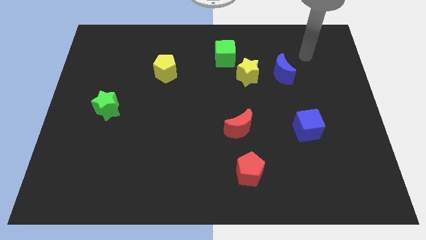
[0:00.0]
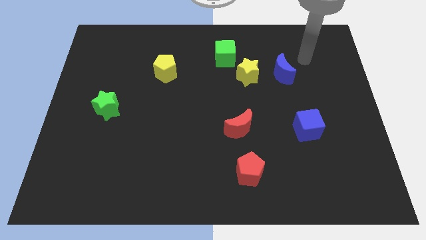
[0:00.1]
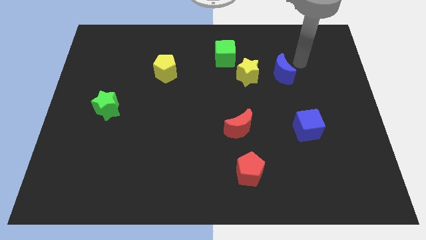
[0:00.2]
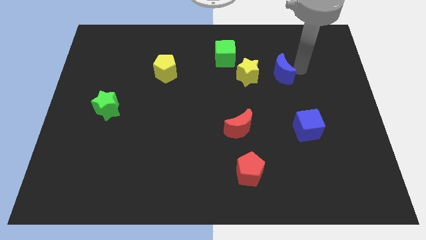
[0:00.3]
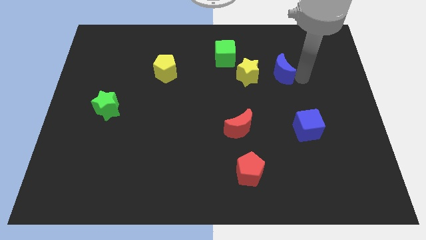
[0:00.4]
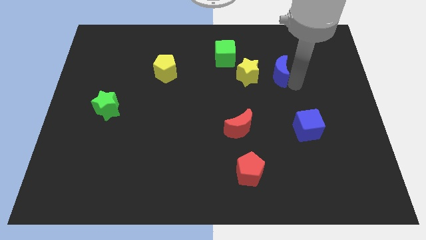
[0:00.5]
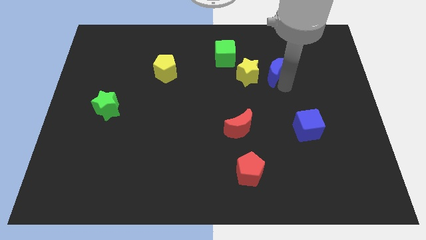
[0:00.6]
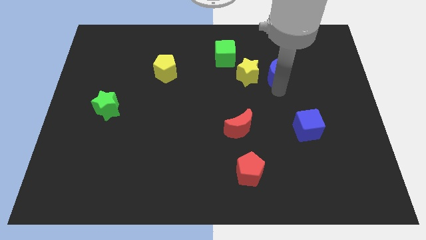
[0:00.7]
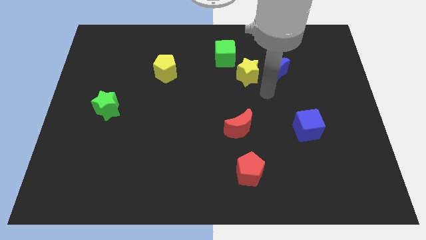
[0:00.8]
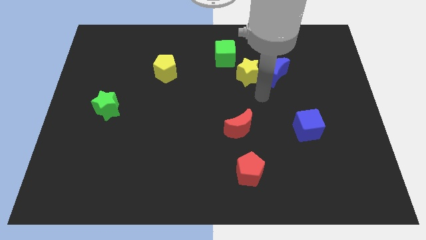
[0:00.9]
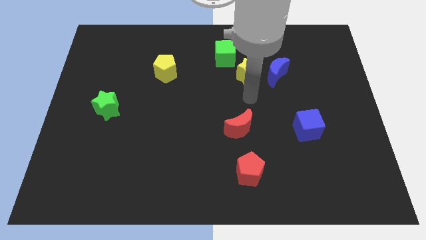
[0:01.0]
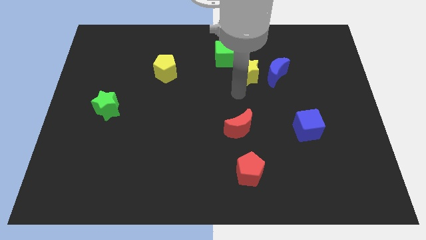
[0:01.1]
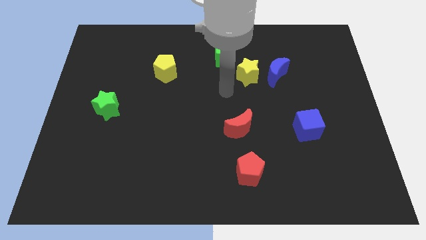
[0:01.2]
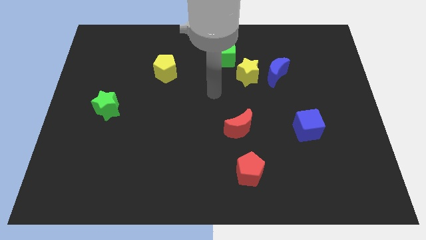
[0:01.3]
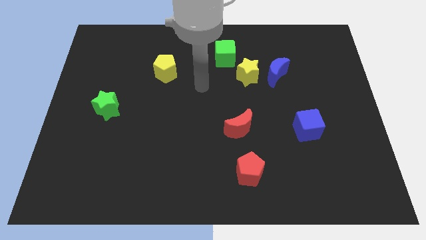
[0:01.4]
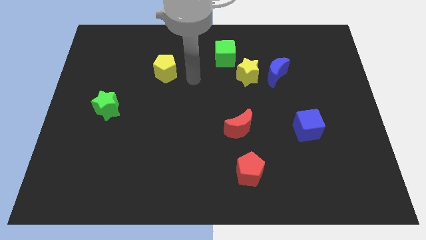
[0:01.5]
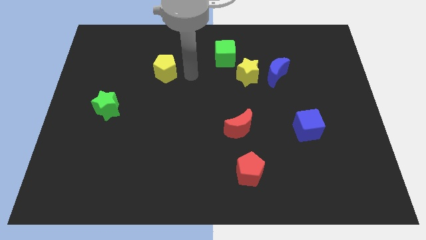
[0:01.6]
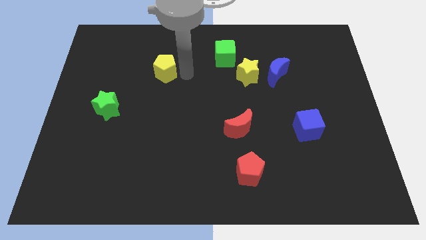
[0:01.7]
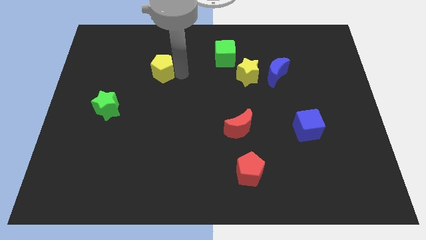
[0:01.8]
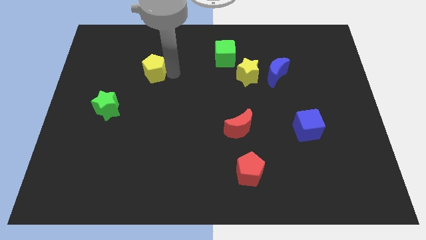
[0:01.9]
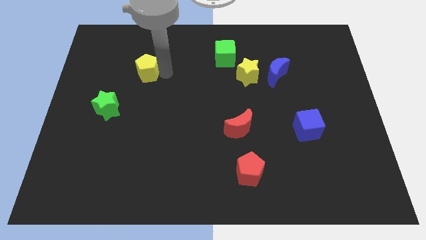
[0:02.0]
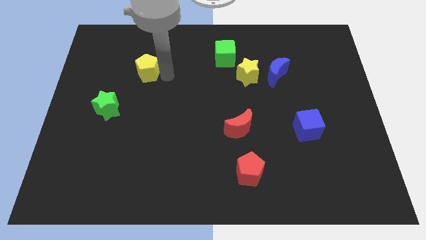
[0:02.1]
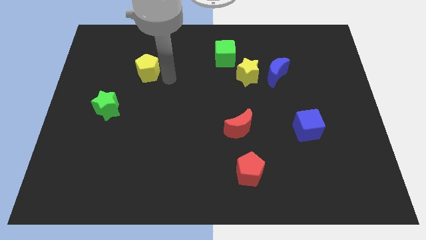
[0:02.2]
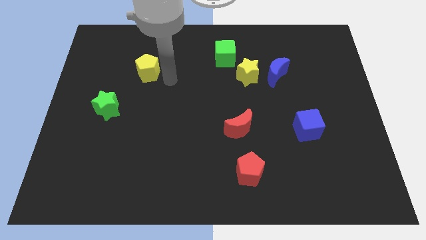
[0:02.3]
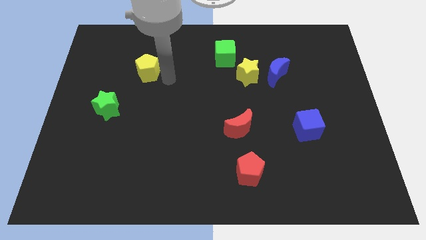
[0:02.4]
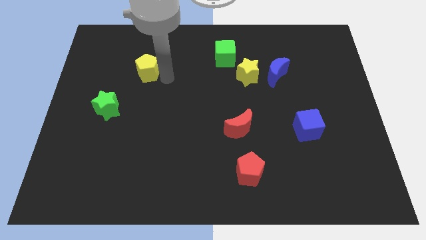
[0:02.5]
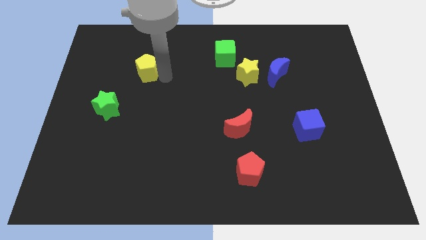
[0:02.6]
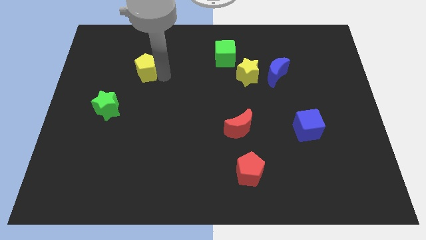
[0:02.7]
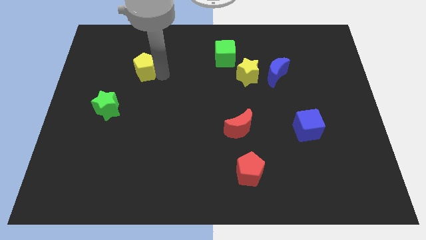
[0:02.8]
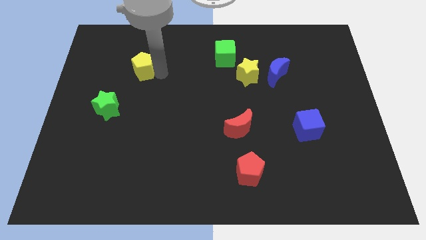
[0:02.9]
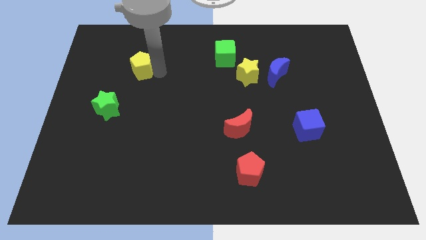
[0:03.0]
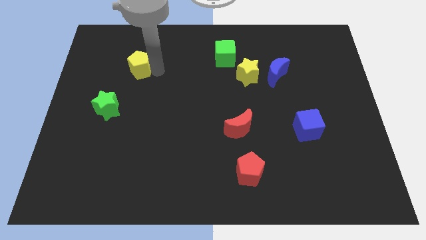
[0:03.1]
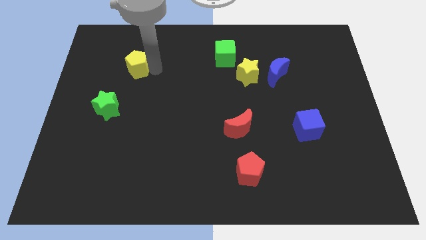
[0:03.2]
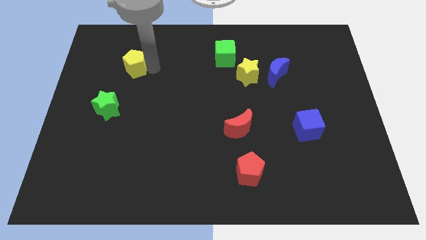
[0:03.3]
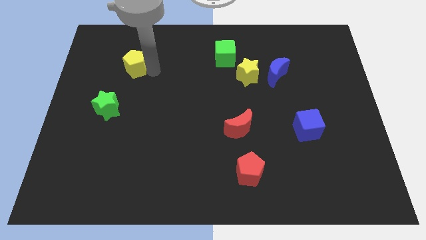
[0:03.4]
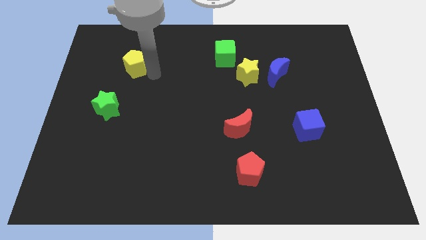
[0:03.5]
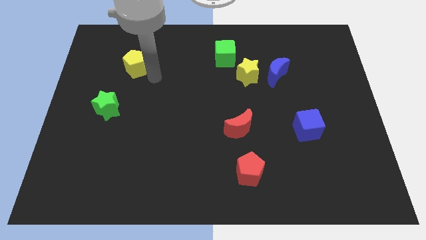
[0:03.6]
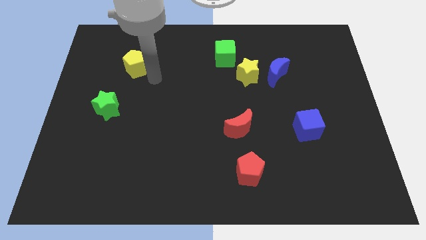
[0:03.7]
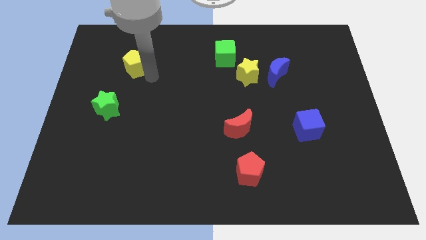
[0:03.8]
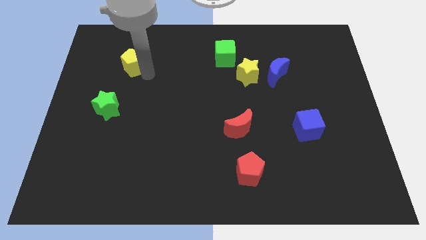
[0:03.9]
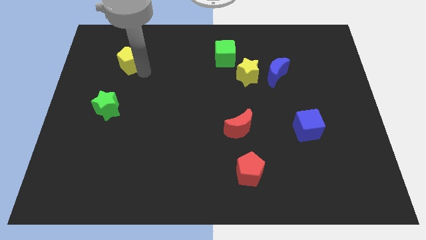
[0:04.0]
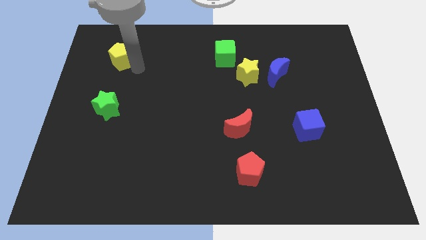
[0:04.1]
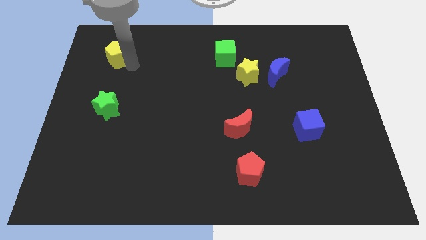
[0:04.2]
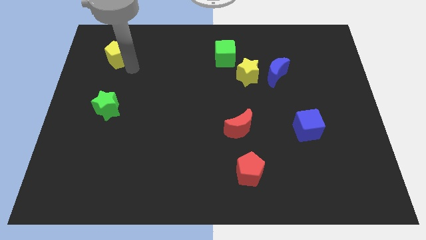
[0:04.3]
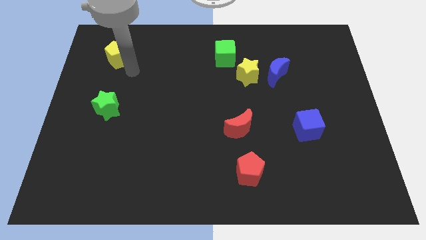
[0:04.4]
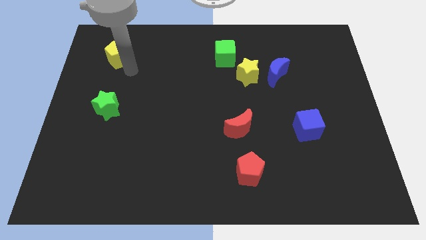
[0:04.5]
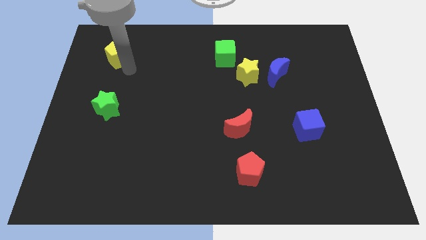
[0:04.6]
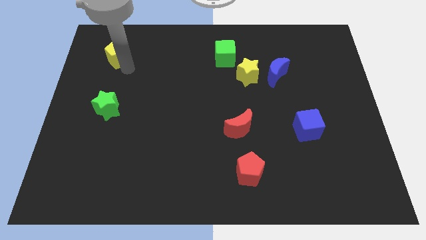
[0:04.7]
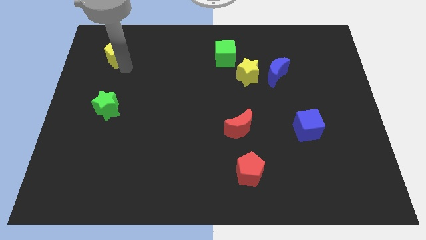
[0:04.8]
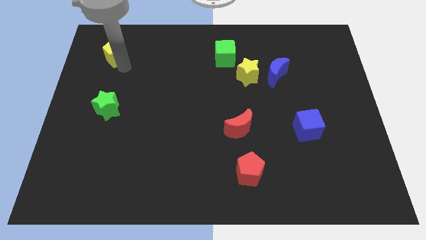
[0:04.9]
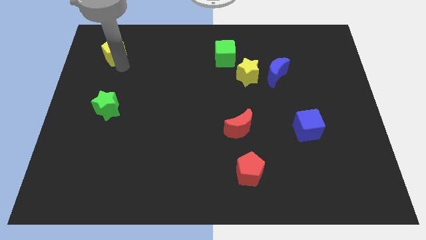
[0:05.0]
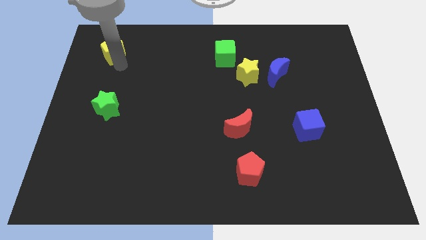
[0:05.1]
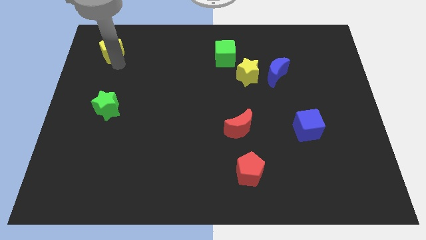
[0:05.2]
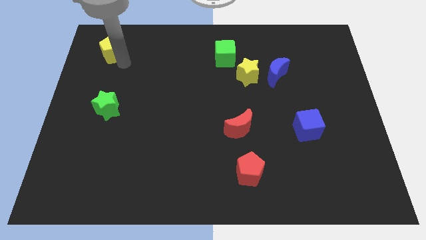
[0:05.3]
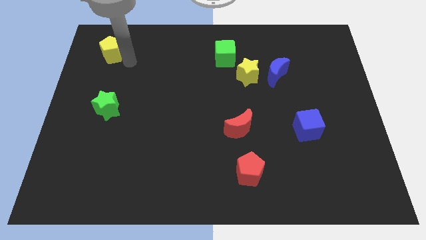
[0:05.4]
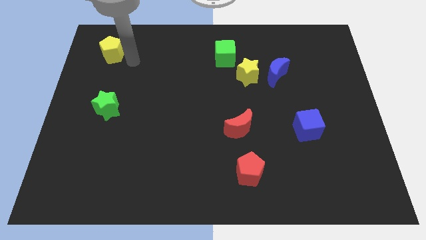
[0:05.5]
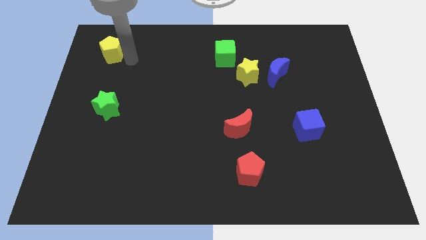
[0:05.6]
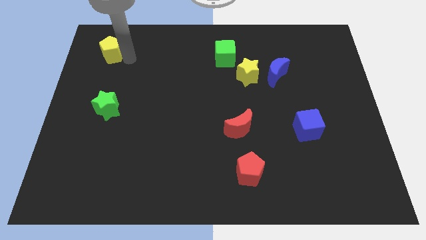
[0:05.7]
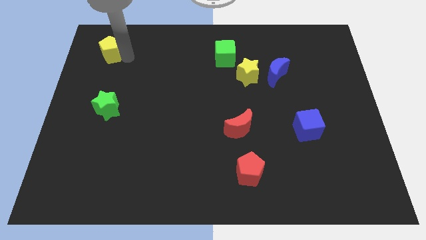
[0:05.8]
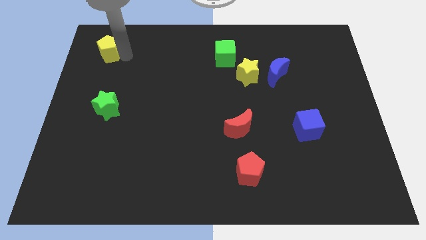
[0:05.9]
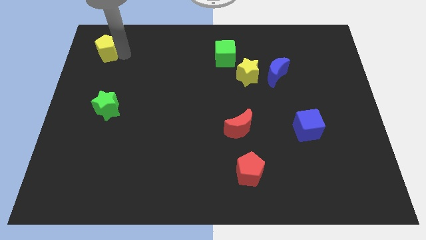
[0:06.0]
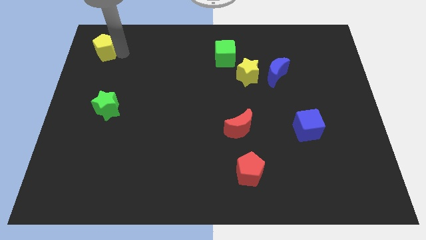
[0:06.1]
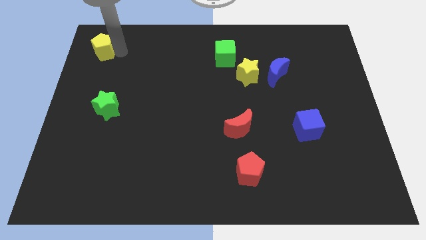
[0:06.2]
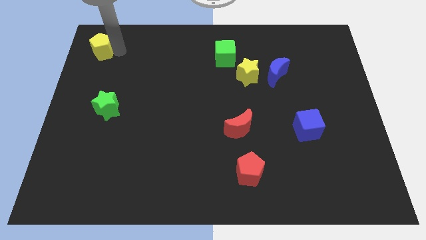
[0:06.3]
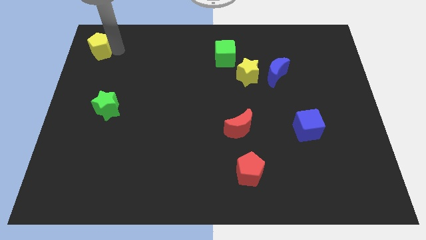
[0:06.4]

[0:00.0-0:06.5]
put the yellow pentagon to the top left corner
